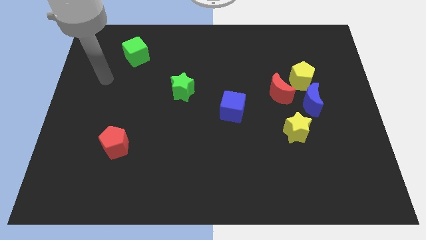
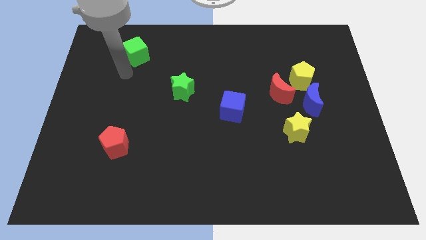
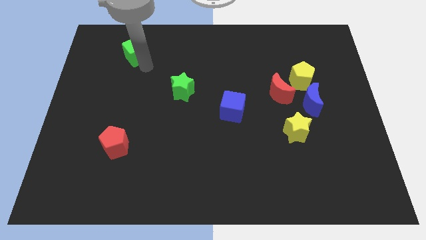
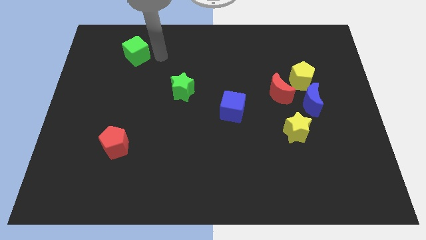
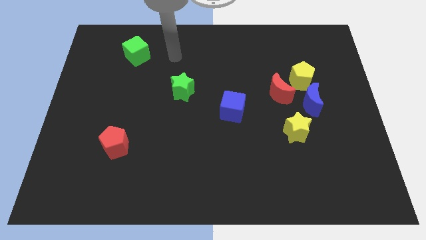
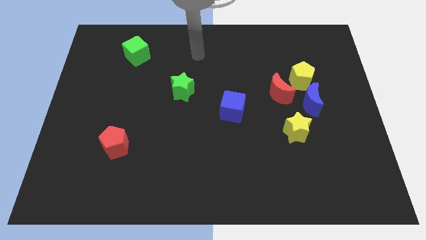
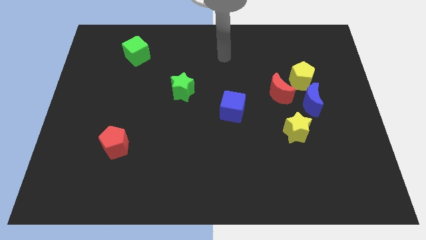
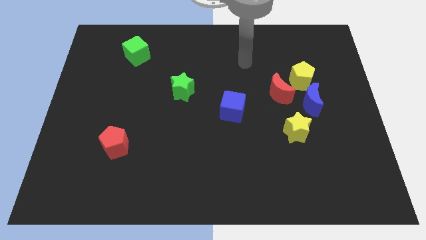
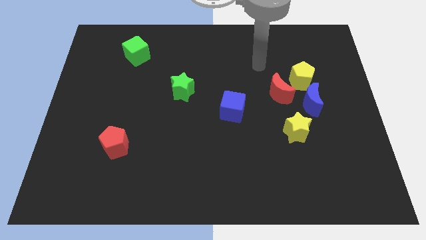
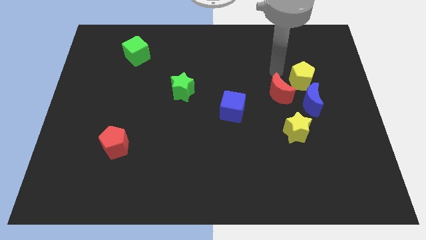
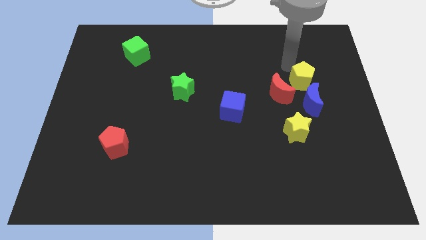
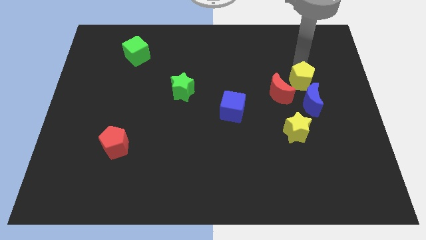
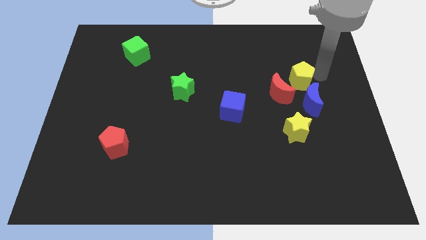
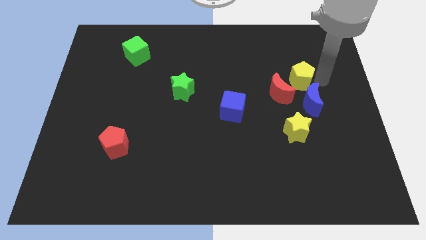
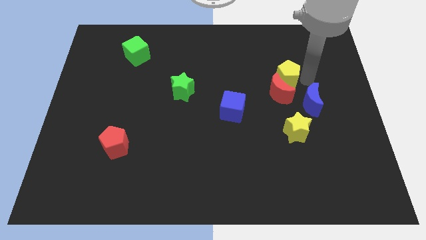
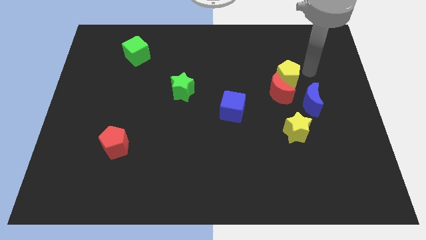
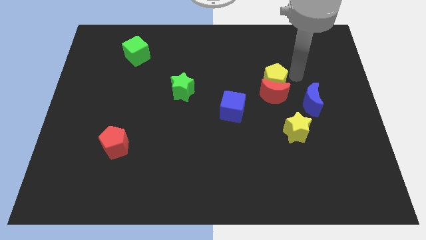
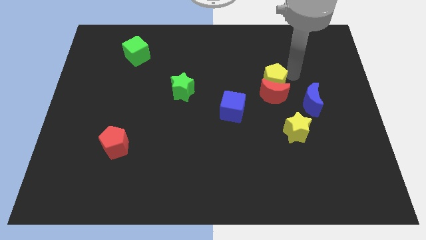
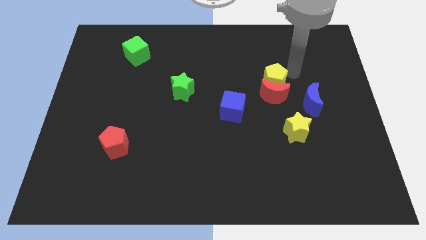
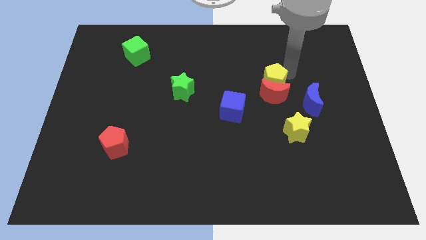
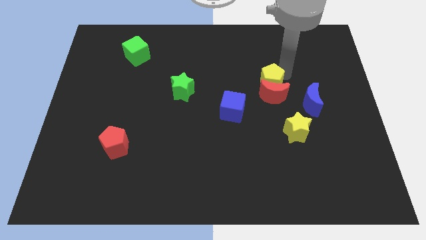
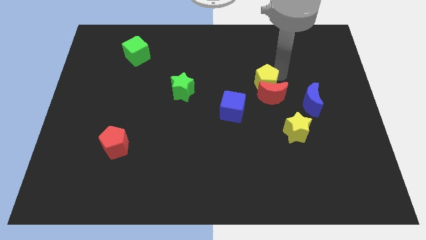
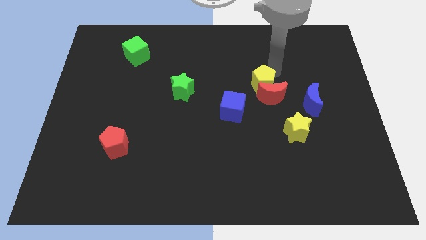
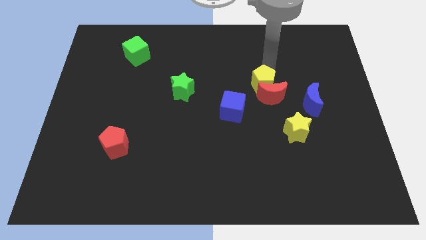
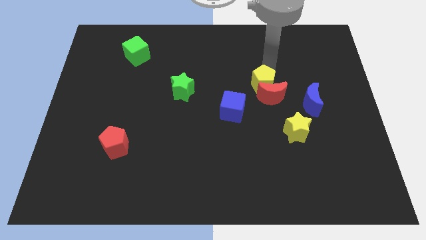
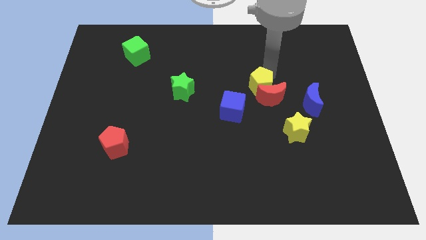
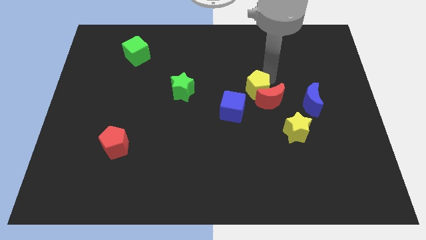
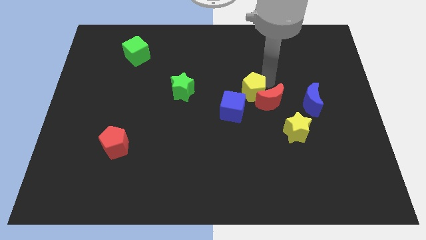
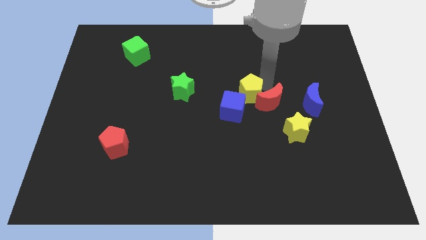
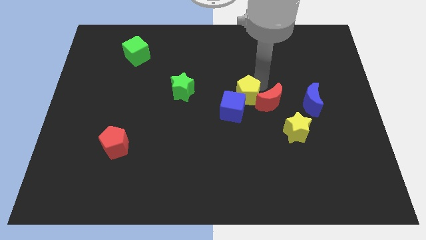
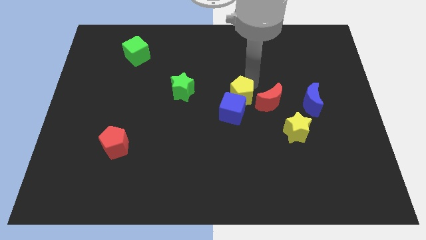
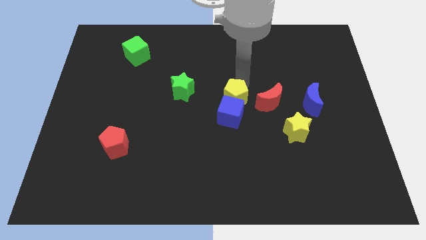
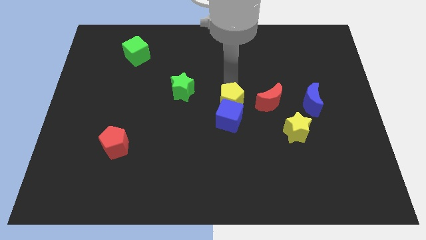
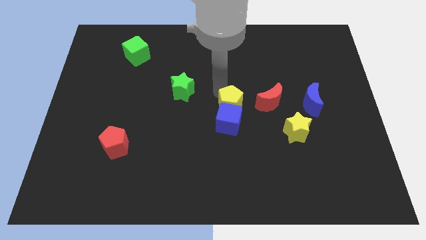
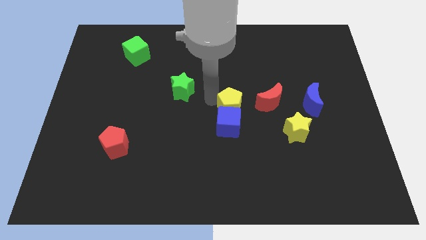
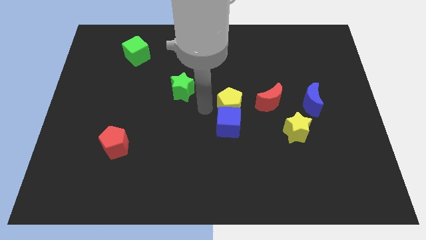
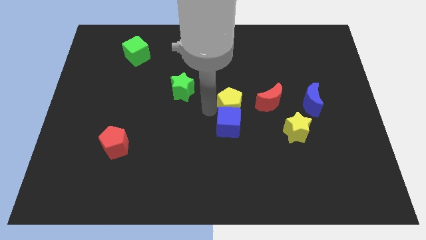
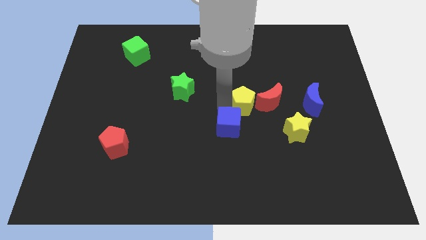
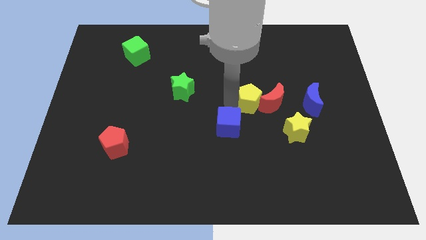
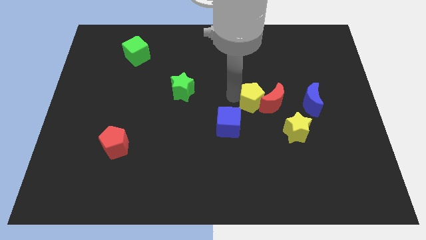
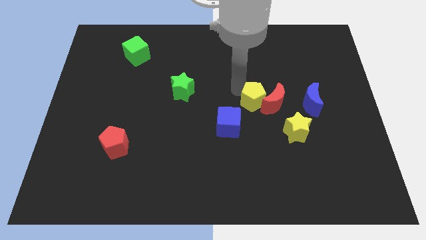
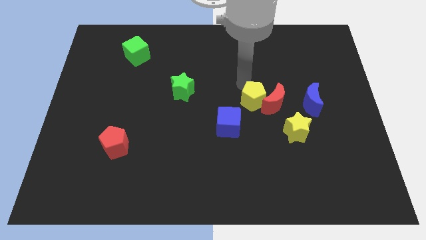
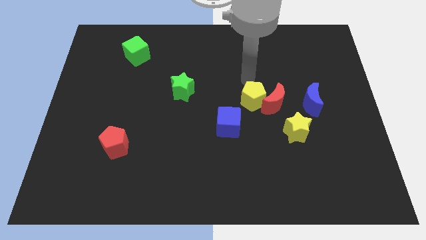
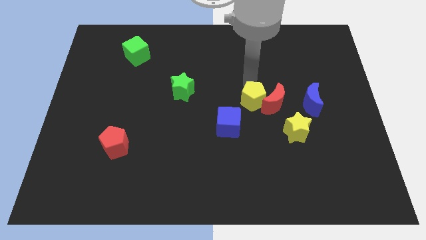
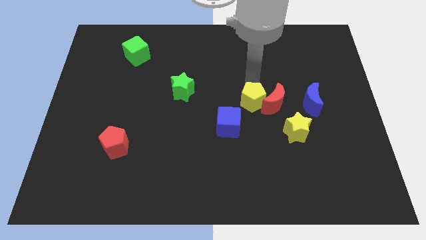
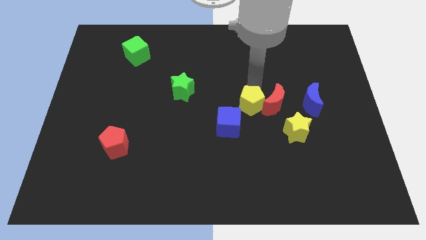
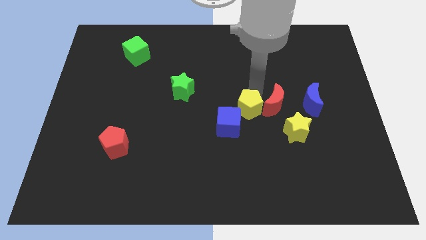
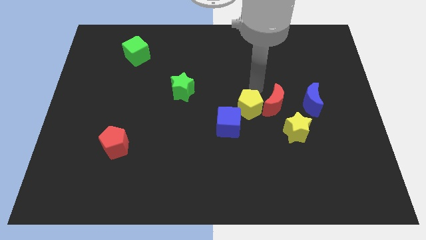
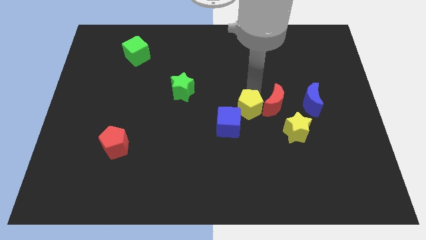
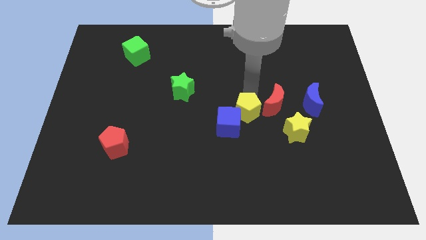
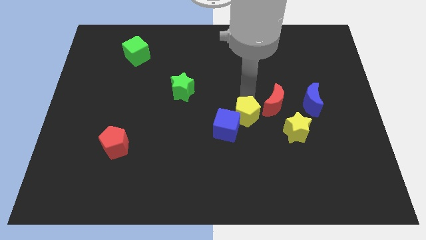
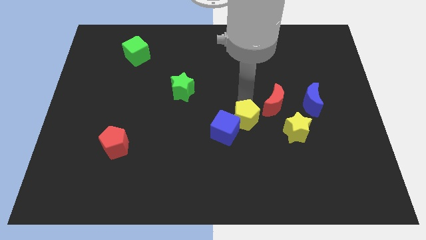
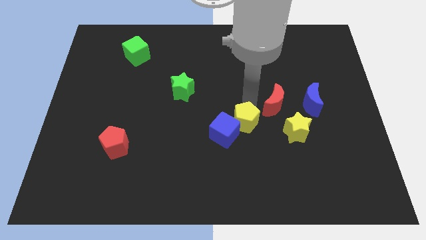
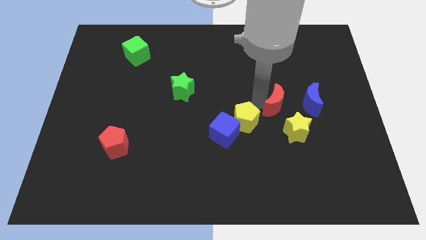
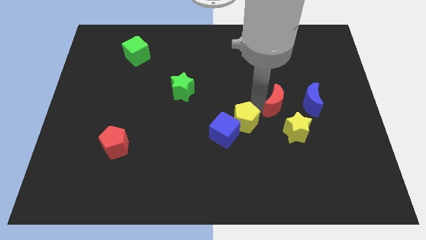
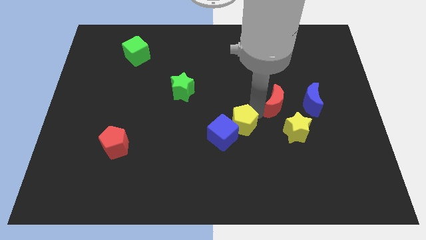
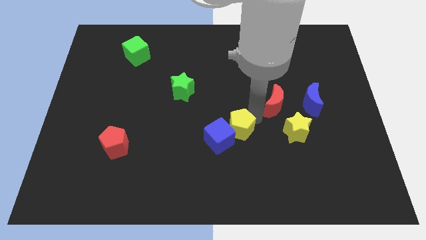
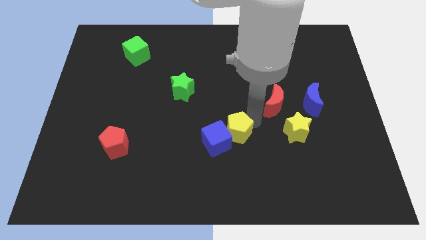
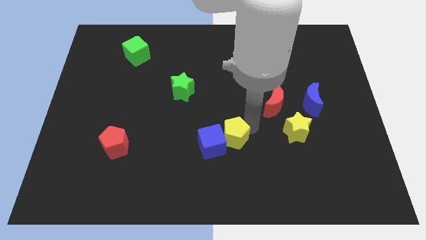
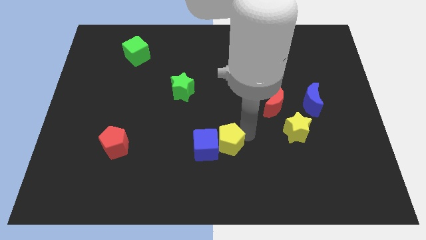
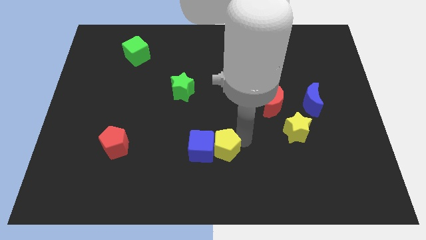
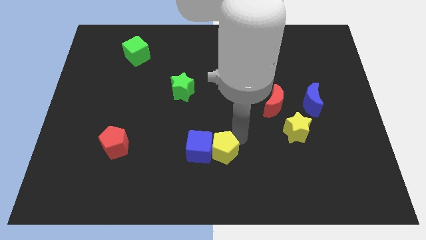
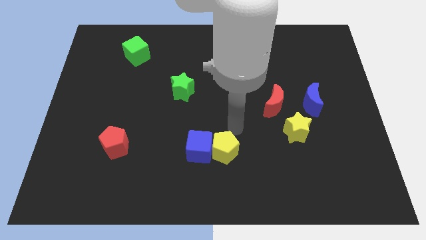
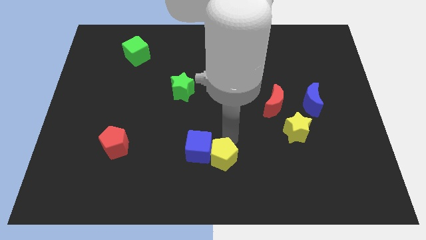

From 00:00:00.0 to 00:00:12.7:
slide the yellow pentagon to the bottom
